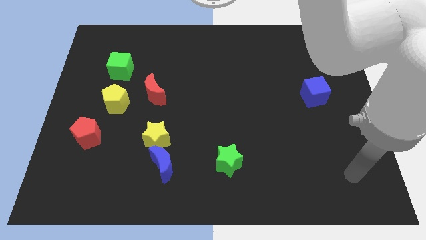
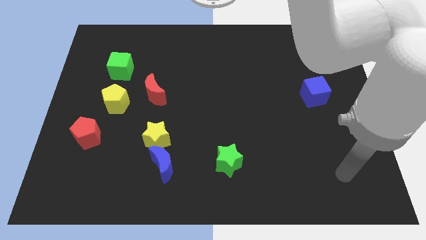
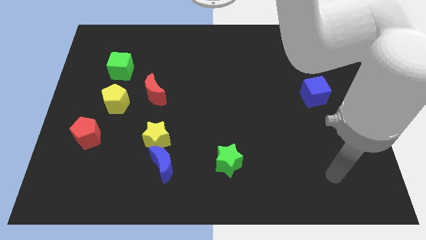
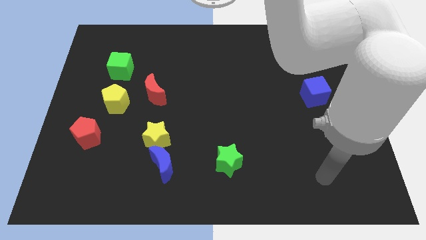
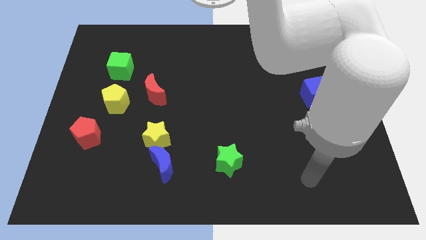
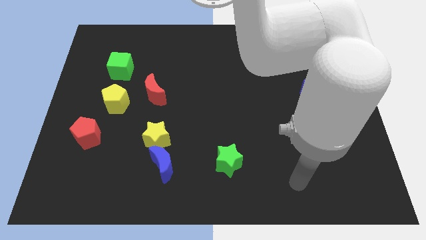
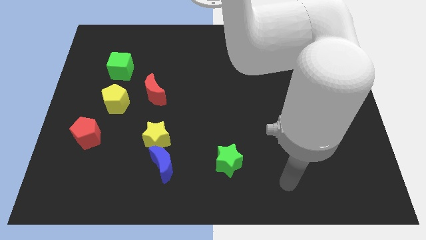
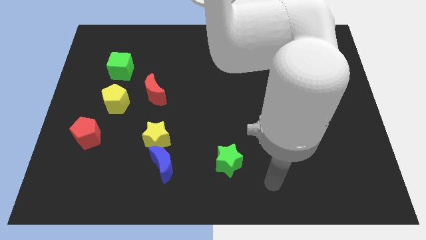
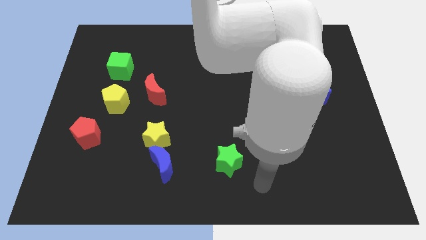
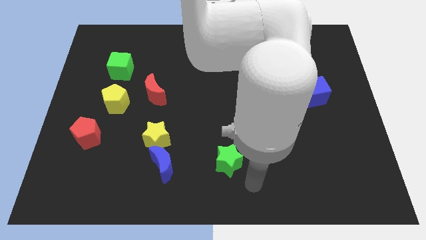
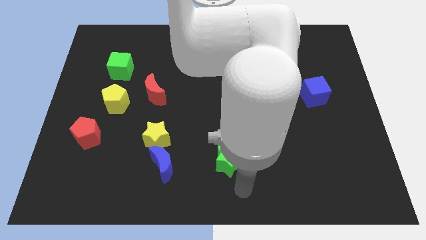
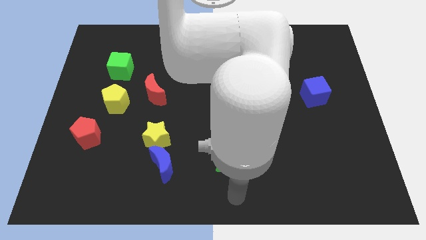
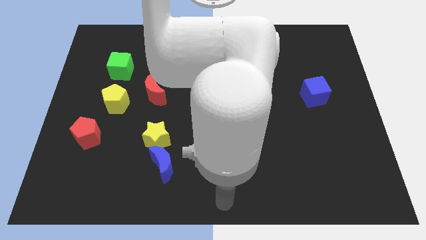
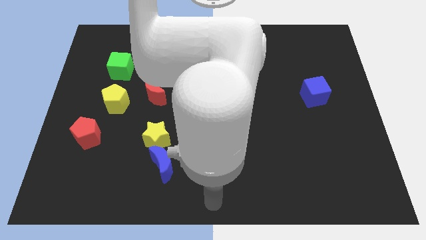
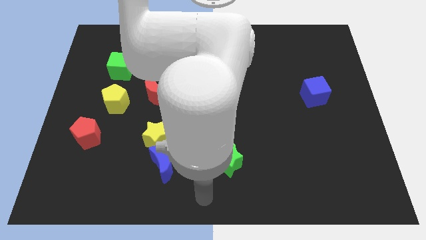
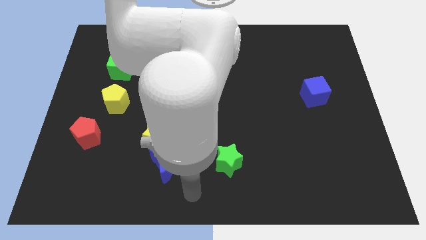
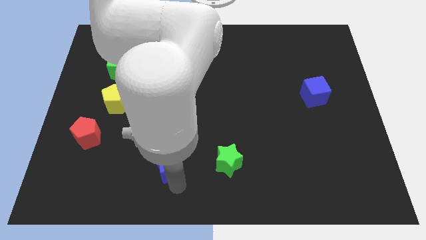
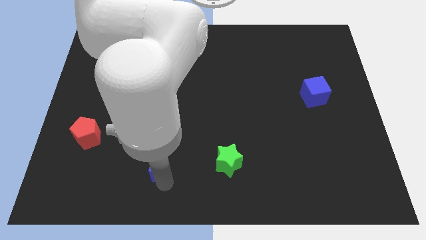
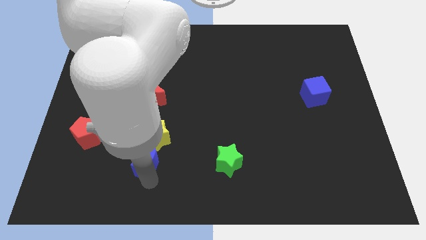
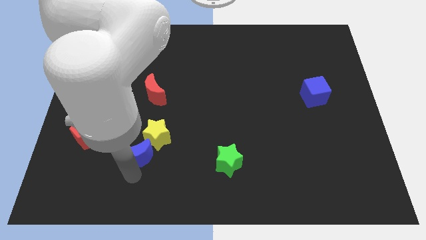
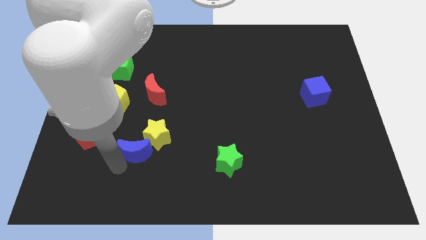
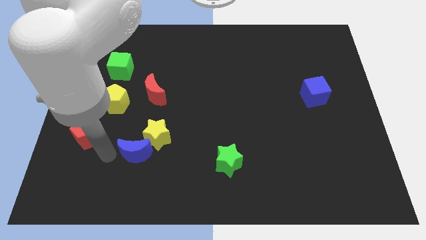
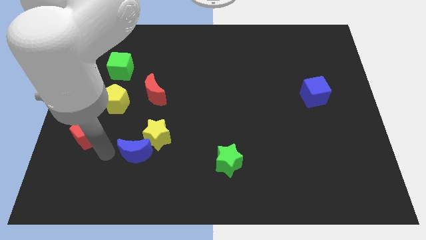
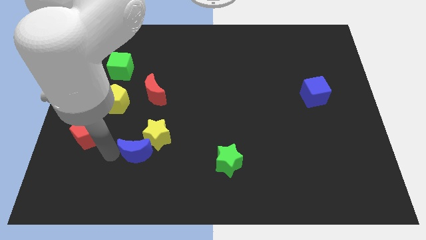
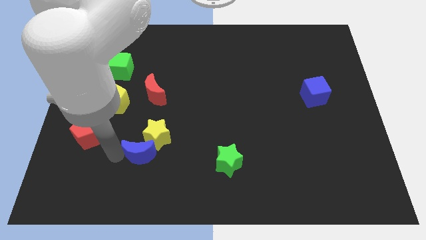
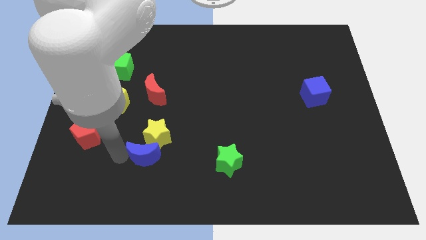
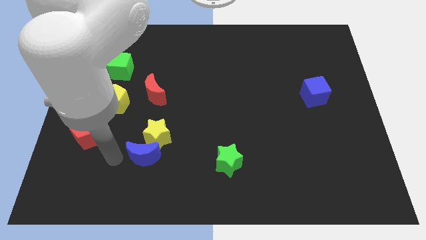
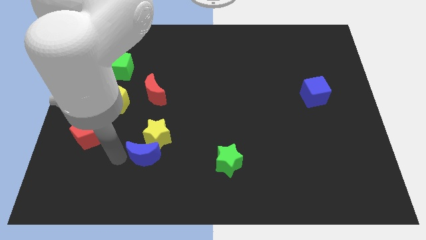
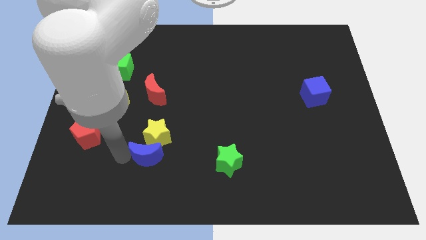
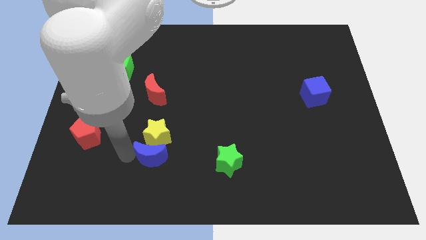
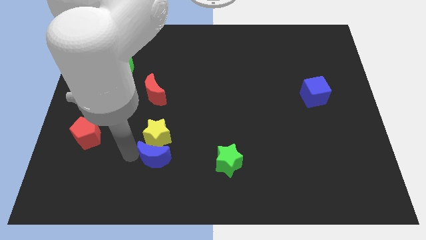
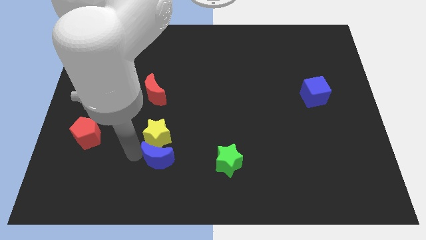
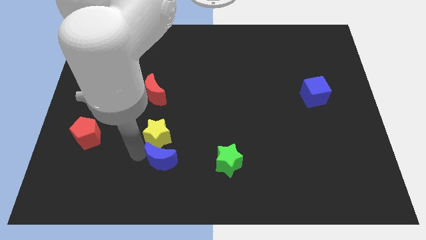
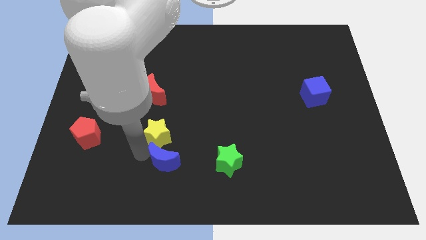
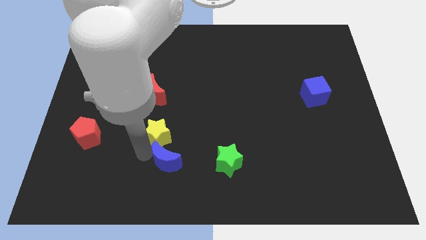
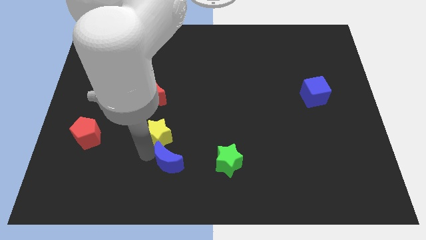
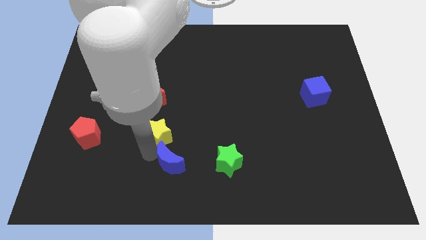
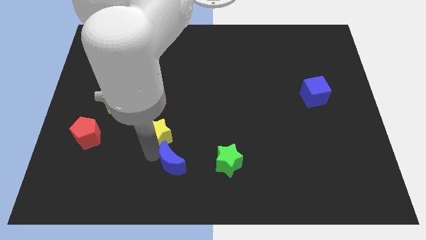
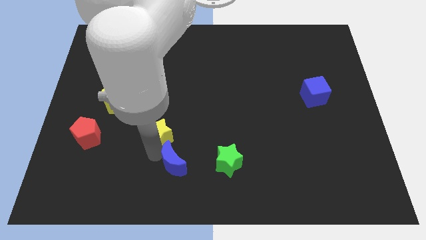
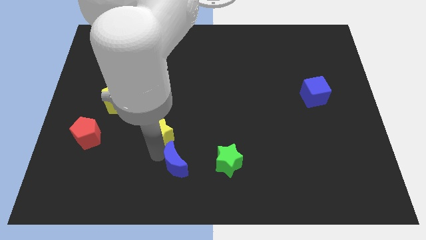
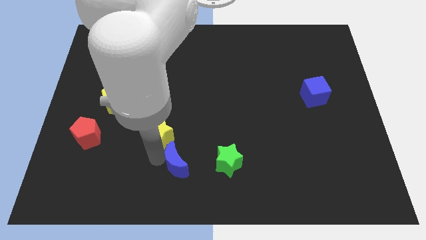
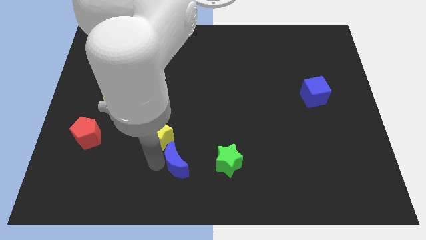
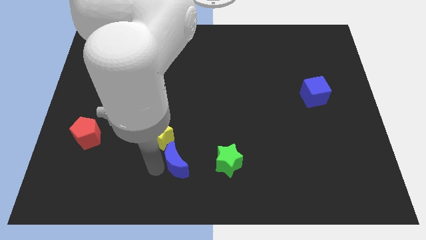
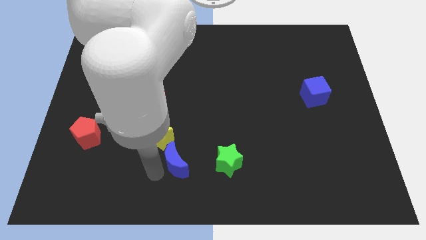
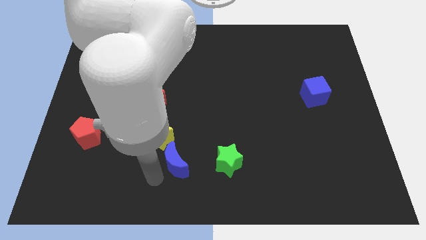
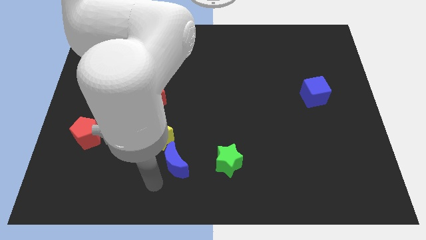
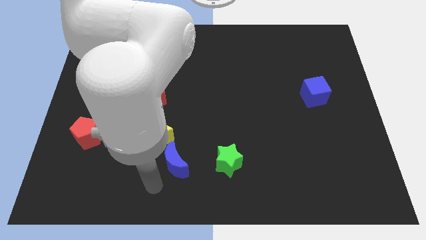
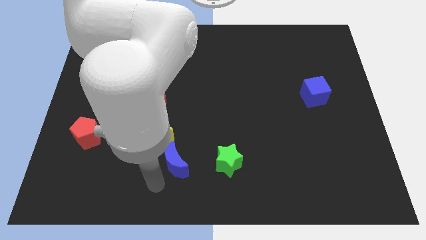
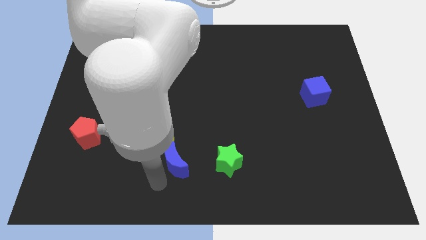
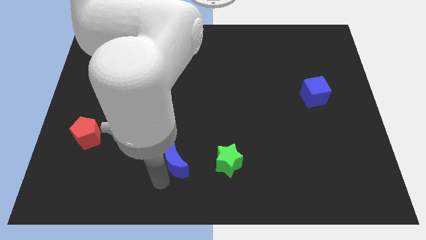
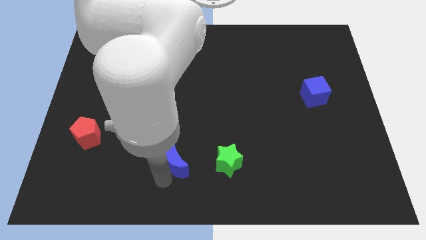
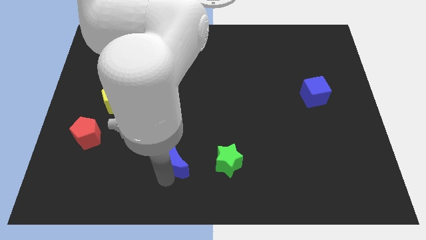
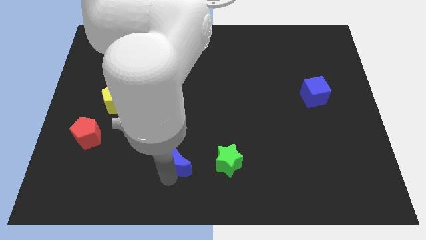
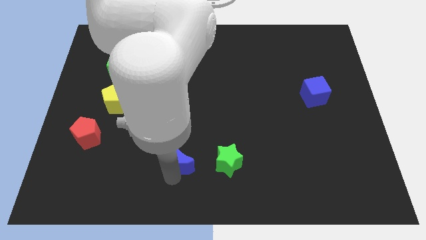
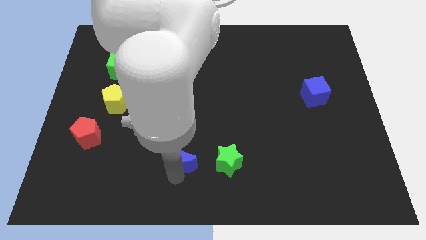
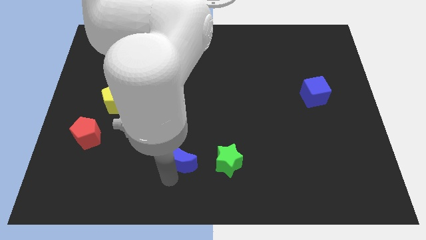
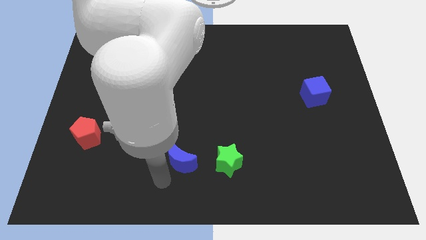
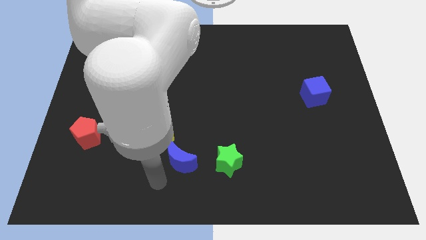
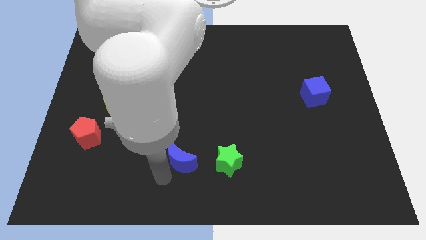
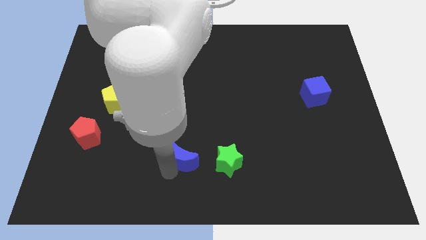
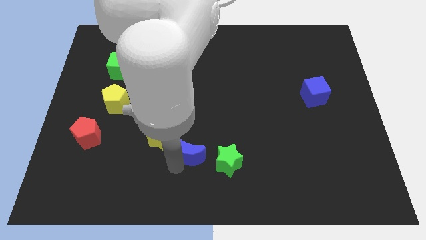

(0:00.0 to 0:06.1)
move the blue moon to the top left side of the green star

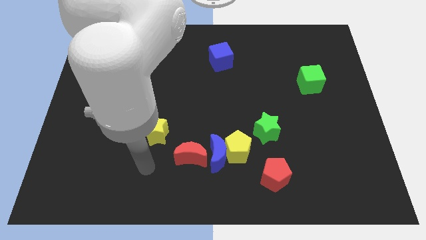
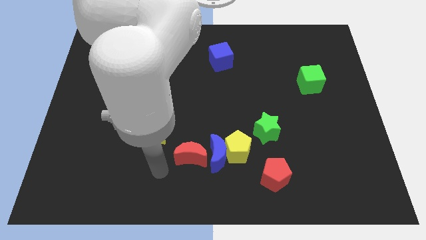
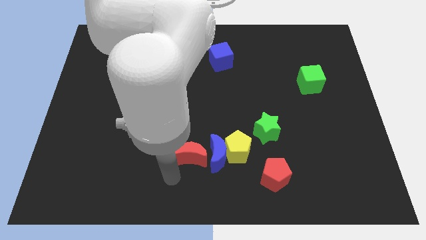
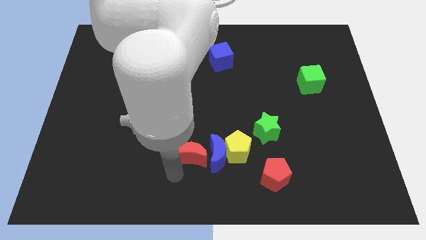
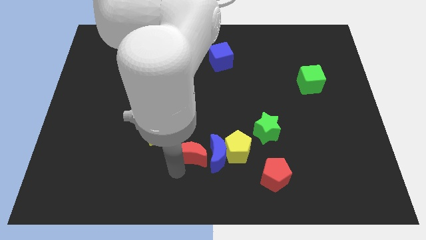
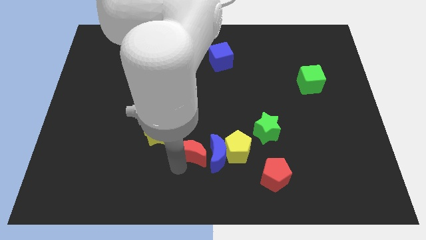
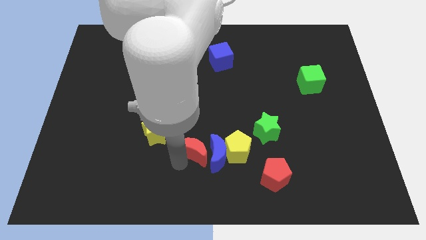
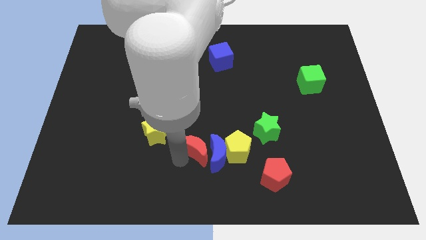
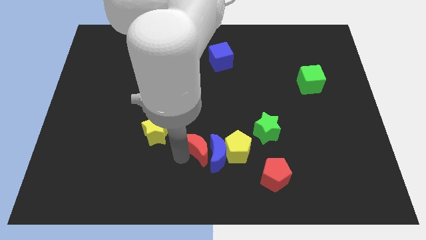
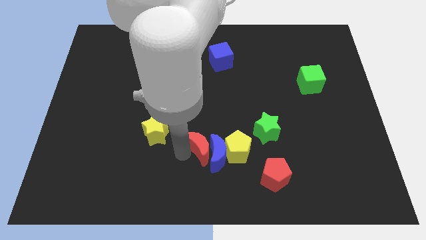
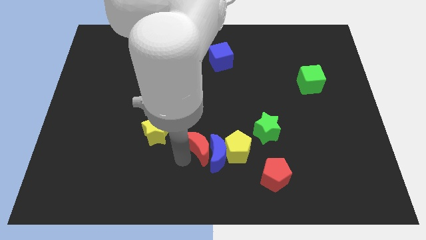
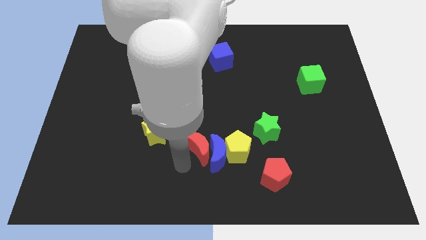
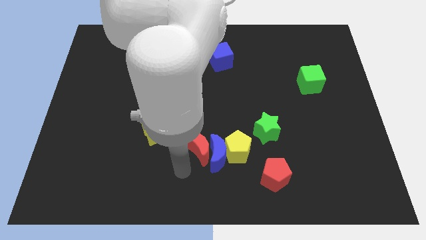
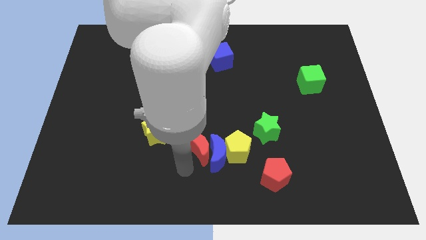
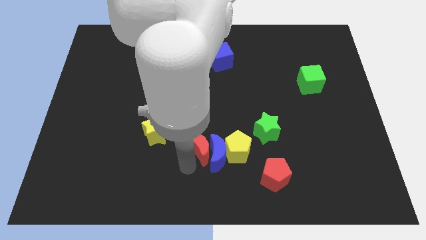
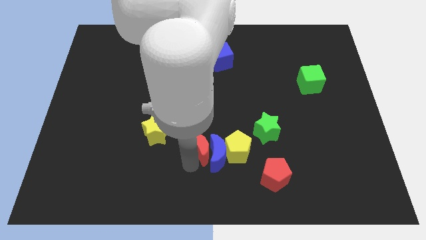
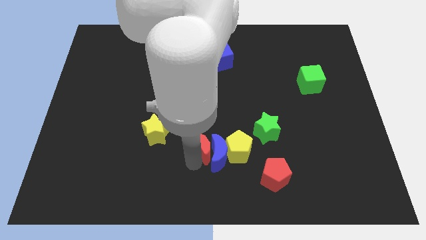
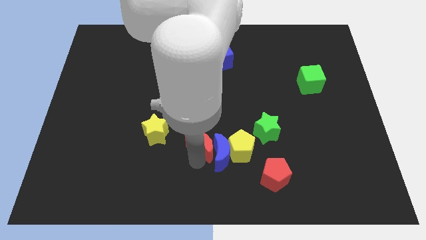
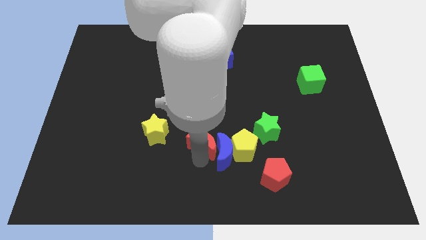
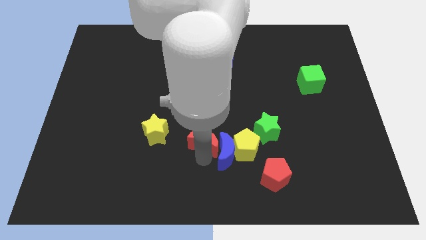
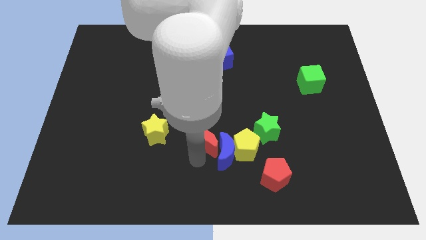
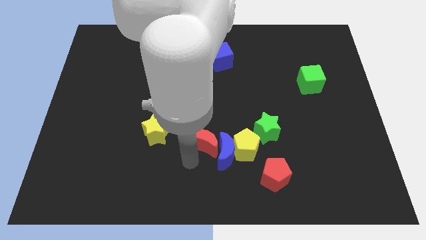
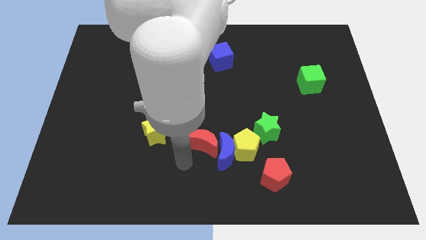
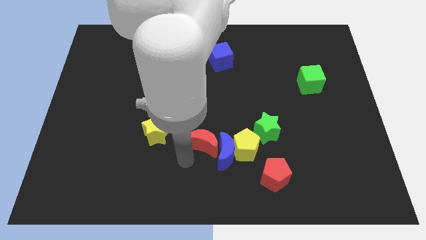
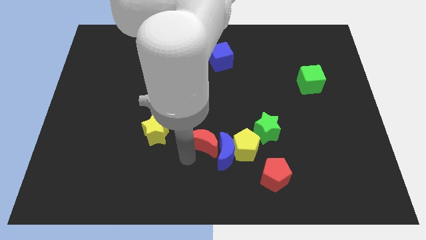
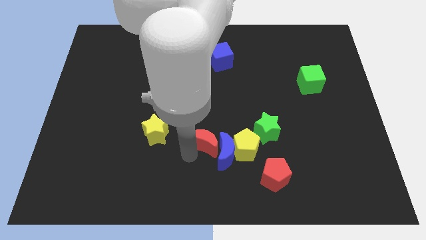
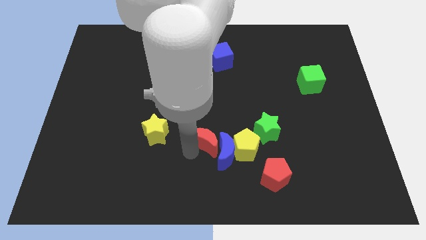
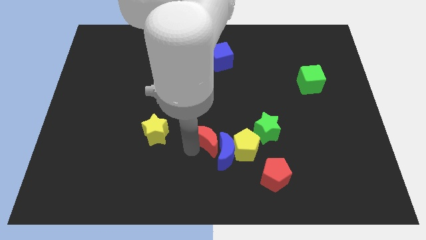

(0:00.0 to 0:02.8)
slide the red moon diagonally up and to the left of the yellow pentagon
